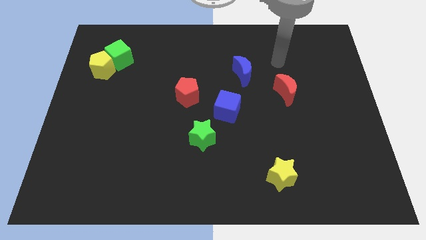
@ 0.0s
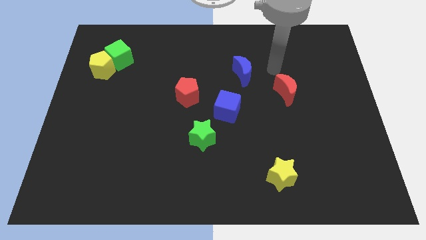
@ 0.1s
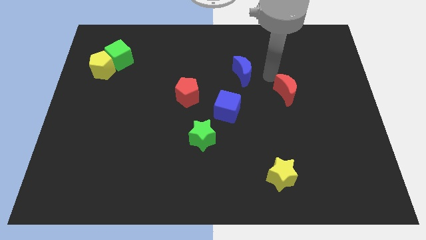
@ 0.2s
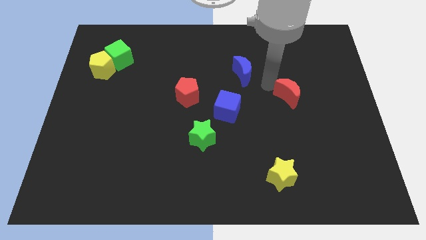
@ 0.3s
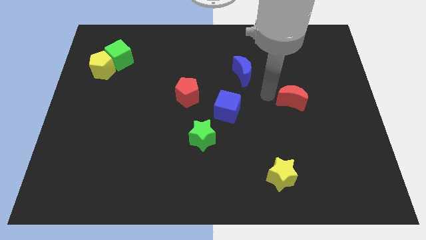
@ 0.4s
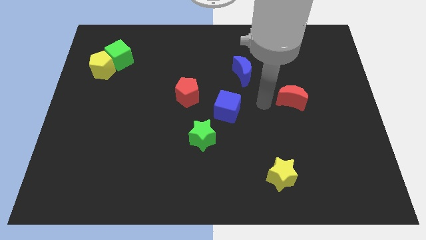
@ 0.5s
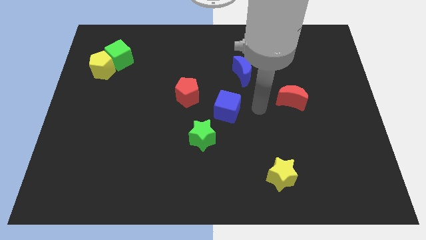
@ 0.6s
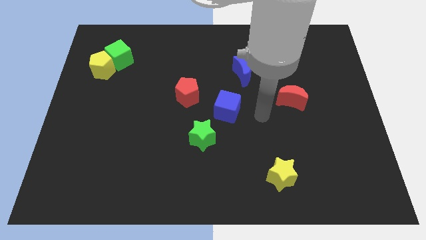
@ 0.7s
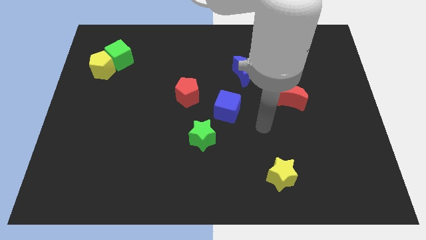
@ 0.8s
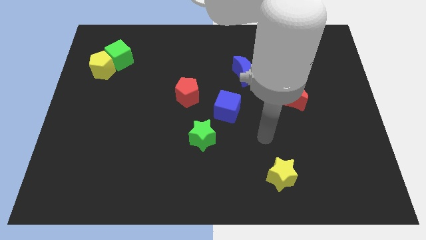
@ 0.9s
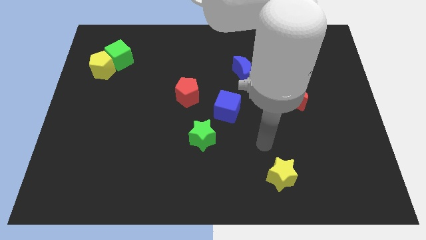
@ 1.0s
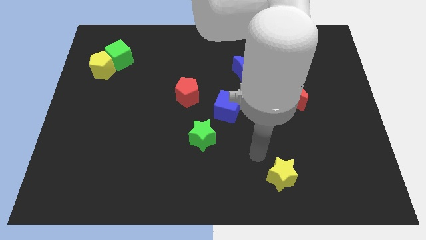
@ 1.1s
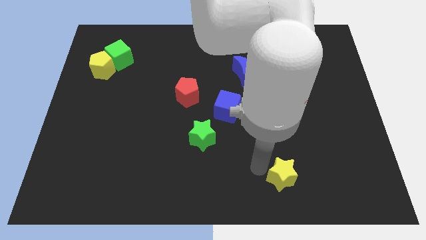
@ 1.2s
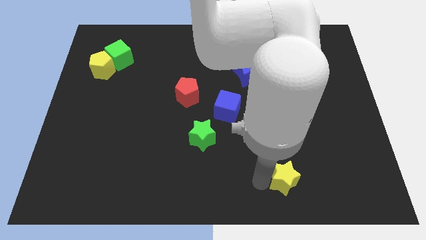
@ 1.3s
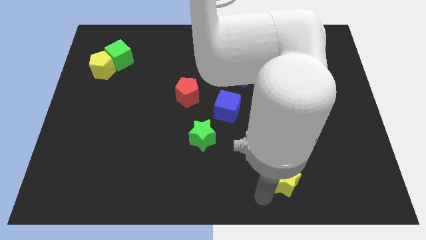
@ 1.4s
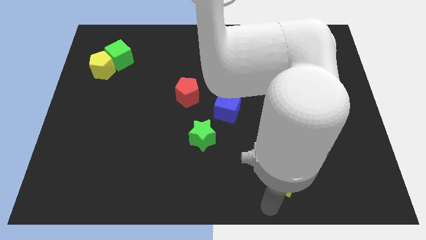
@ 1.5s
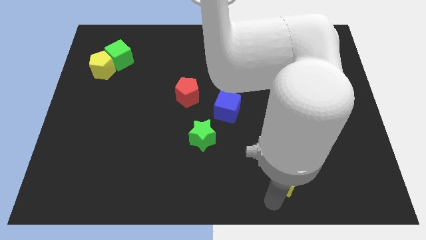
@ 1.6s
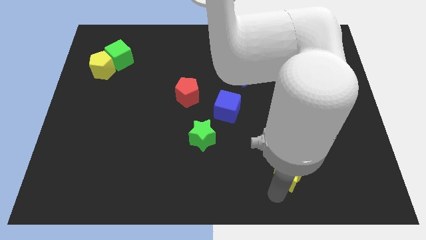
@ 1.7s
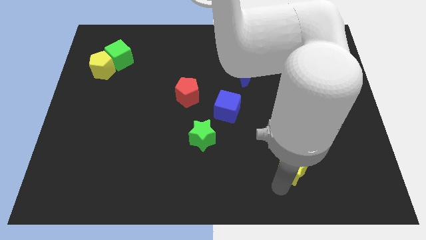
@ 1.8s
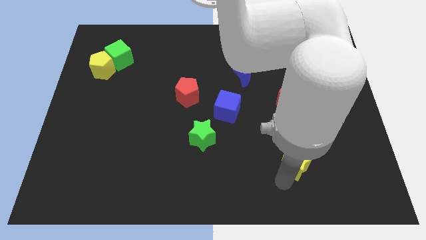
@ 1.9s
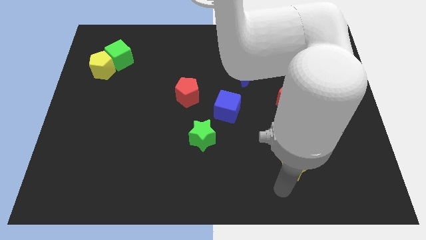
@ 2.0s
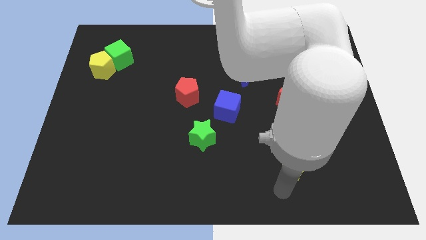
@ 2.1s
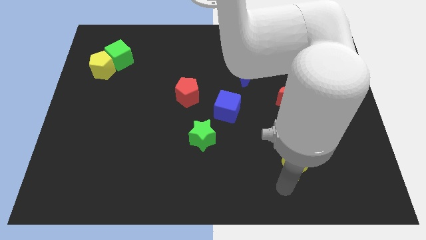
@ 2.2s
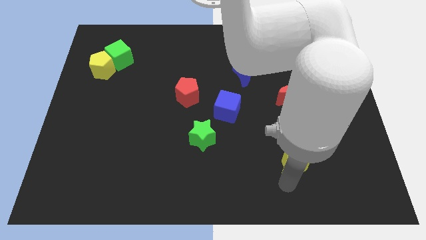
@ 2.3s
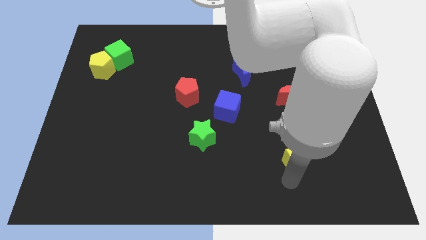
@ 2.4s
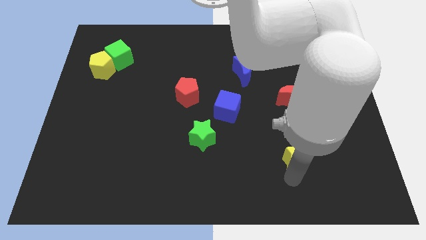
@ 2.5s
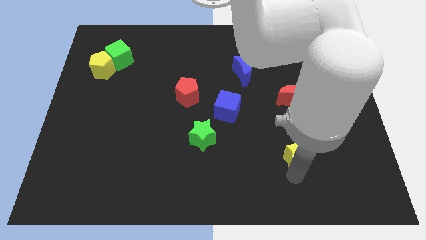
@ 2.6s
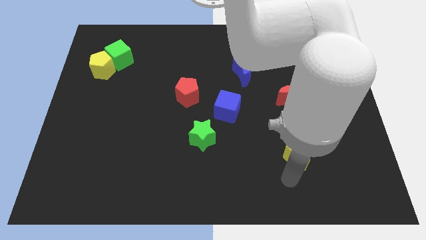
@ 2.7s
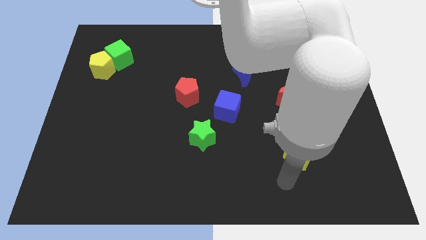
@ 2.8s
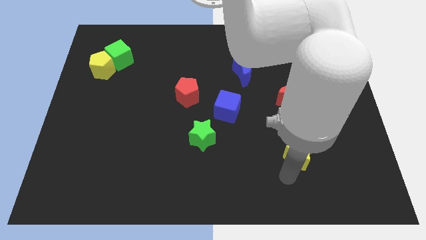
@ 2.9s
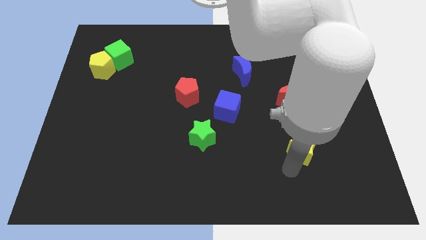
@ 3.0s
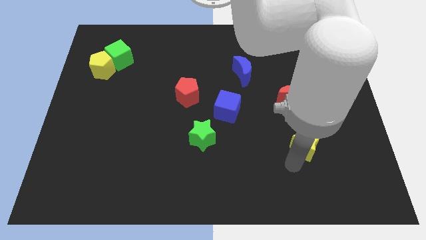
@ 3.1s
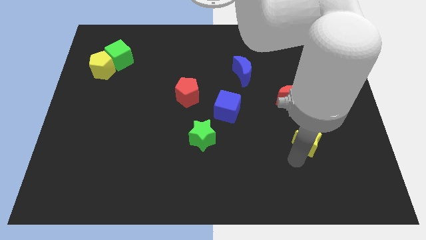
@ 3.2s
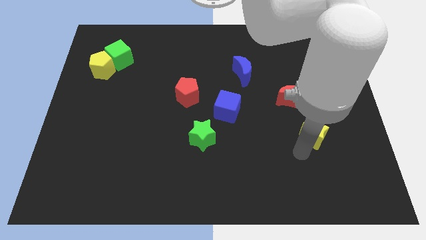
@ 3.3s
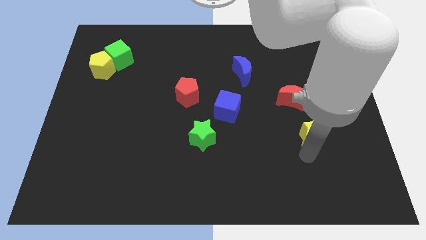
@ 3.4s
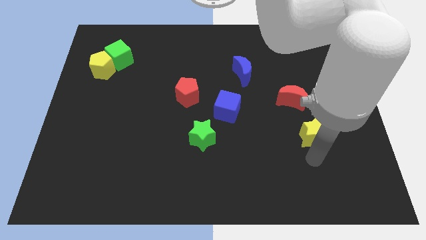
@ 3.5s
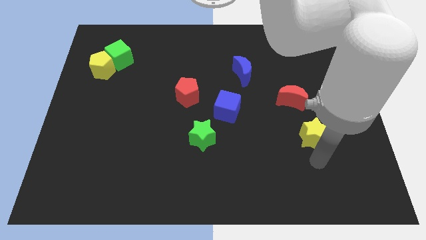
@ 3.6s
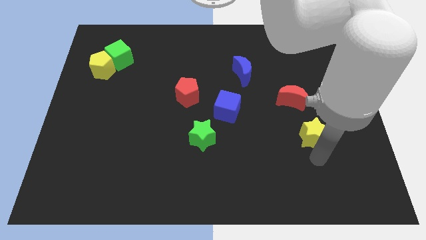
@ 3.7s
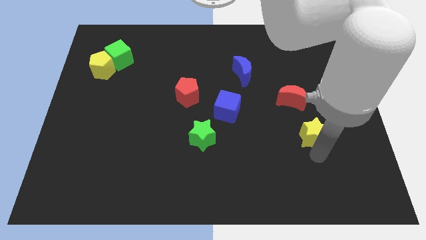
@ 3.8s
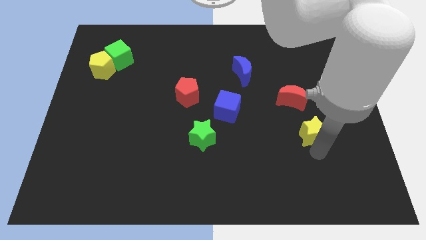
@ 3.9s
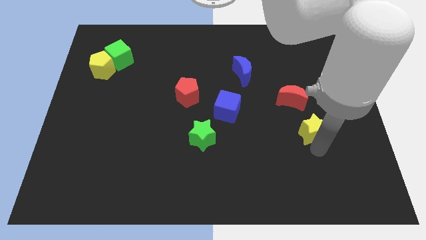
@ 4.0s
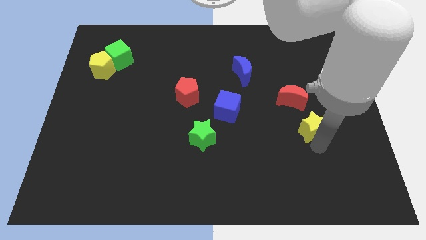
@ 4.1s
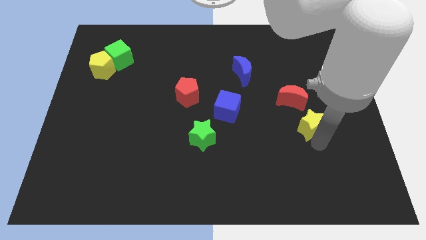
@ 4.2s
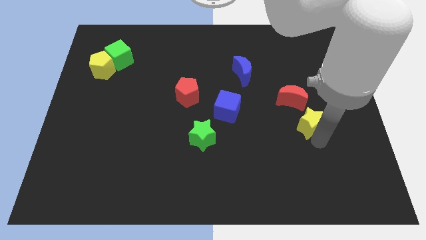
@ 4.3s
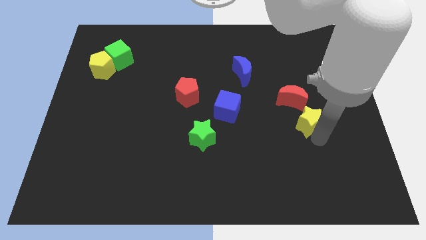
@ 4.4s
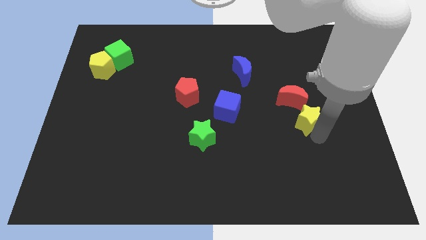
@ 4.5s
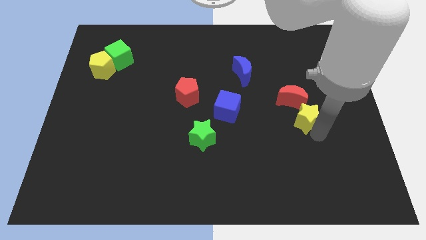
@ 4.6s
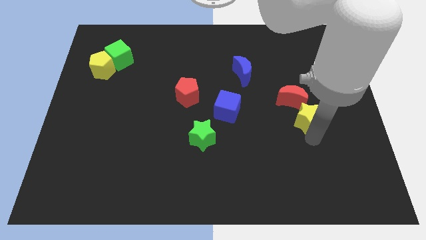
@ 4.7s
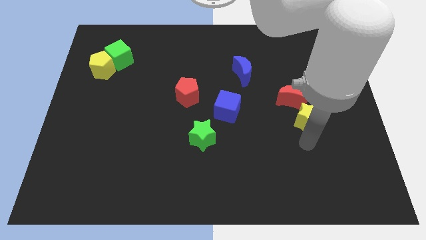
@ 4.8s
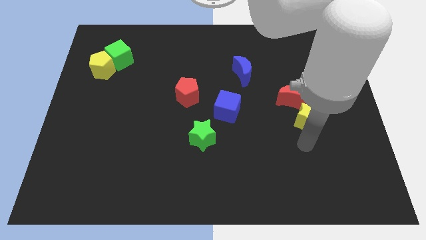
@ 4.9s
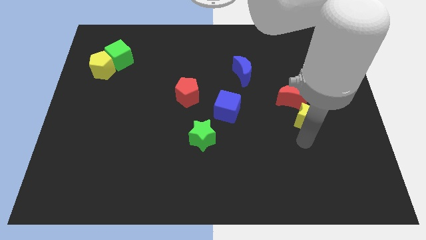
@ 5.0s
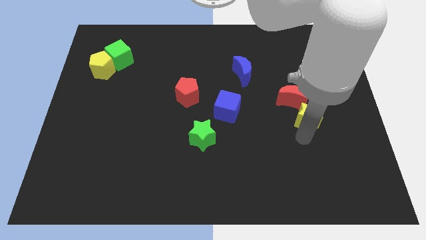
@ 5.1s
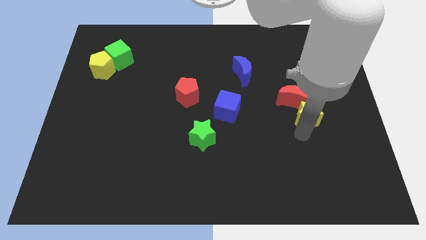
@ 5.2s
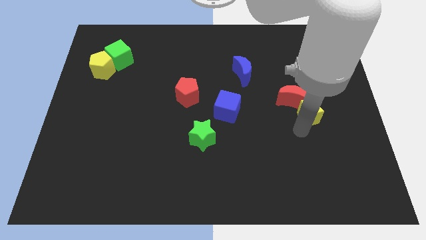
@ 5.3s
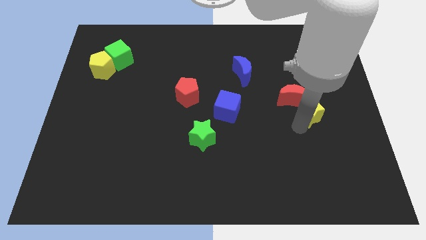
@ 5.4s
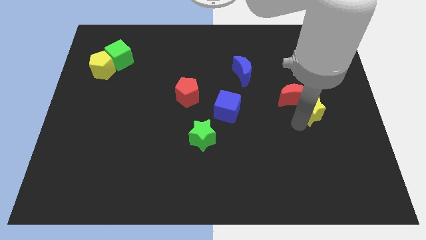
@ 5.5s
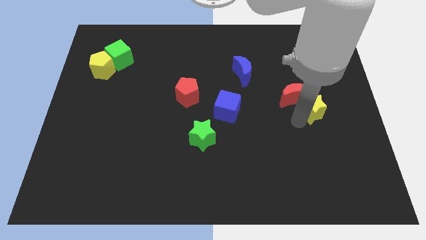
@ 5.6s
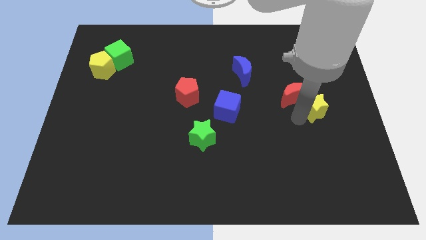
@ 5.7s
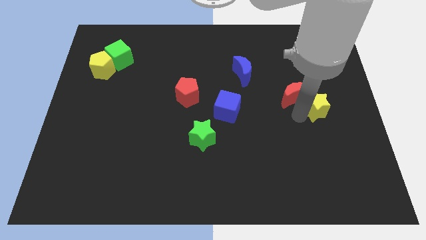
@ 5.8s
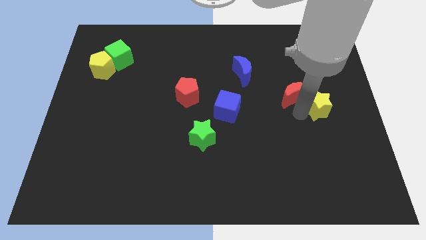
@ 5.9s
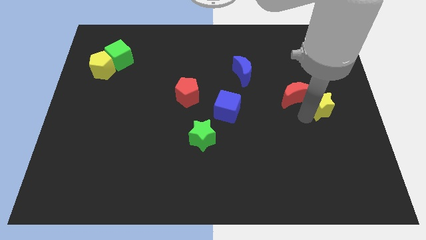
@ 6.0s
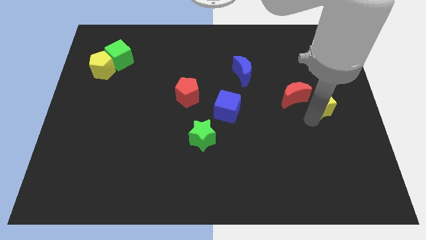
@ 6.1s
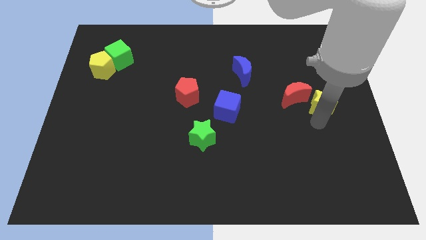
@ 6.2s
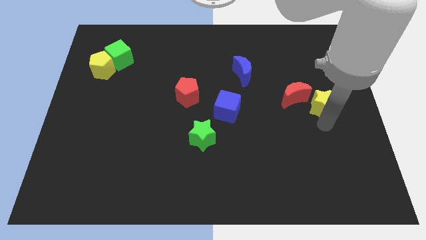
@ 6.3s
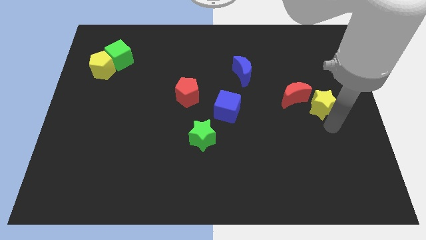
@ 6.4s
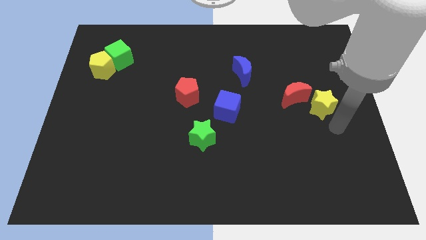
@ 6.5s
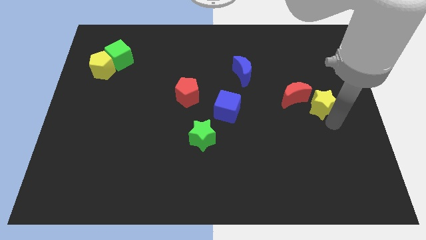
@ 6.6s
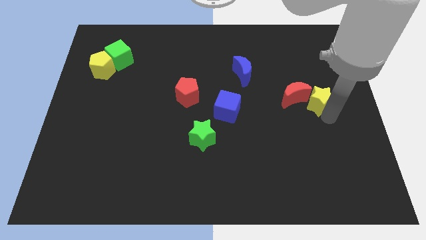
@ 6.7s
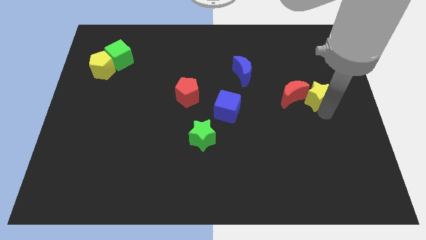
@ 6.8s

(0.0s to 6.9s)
move the yellow star to the top right of the red moon

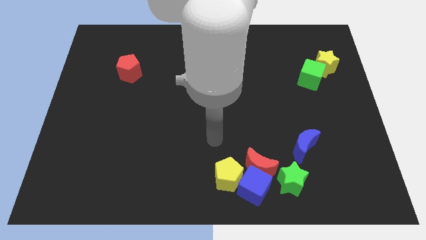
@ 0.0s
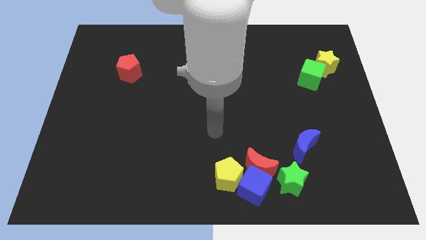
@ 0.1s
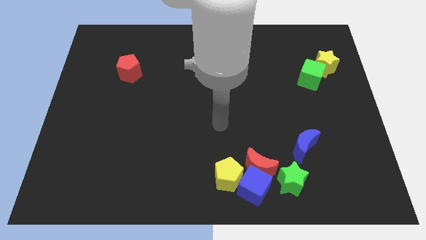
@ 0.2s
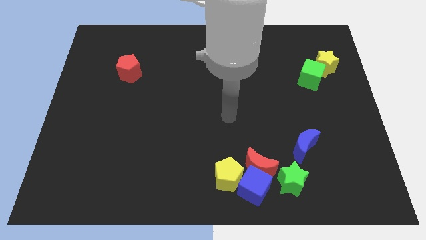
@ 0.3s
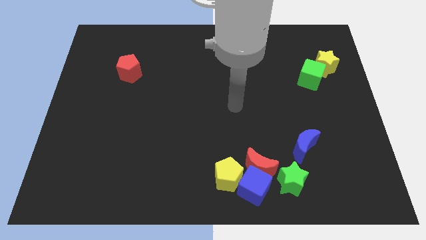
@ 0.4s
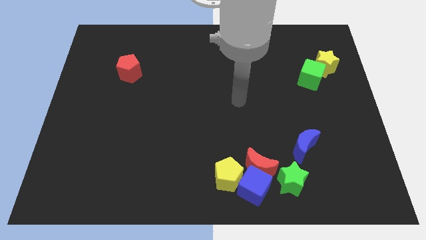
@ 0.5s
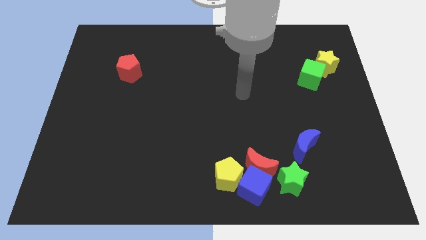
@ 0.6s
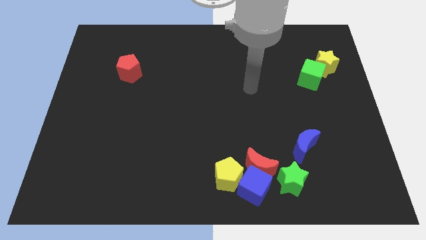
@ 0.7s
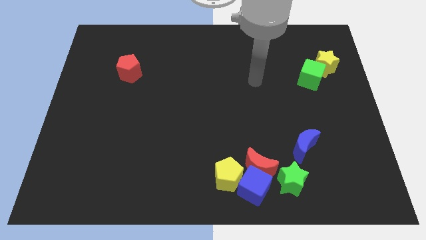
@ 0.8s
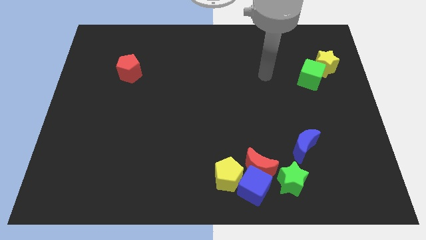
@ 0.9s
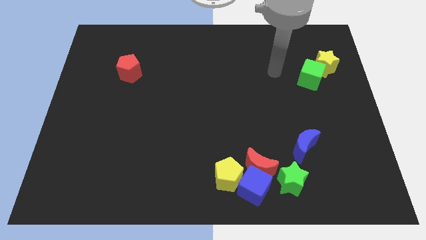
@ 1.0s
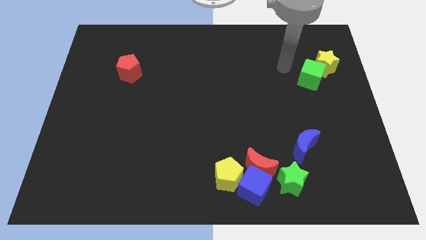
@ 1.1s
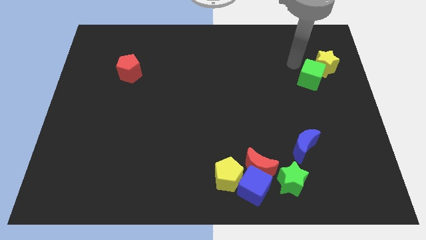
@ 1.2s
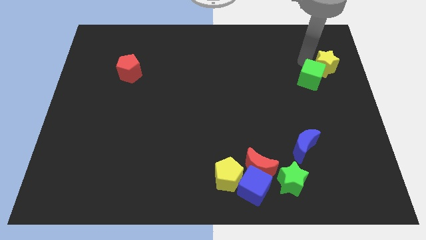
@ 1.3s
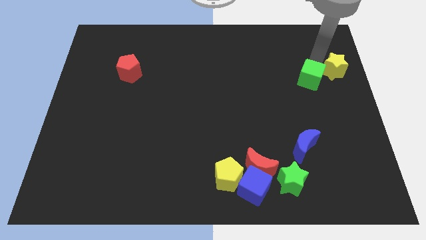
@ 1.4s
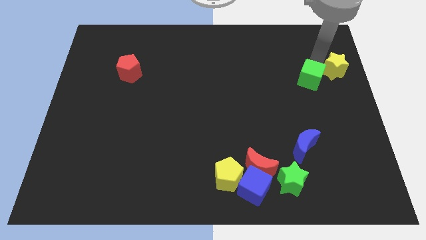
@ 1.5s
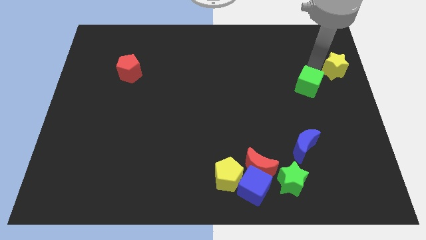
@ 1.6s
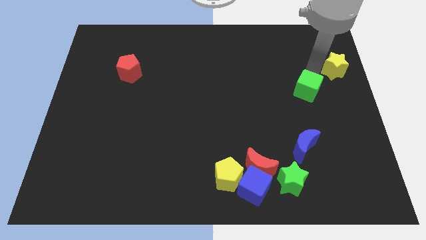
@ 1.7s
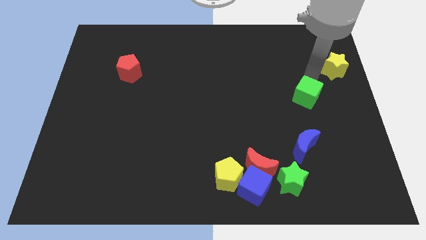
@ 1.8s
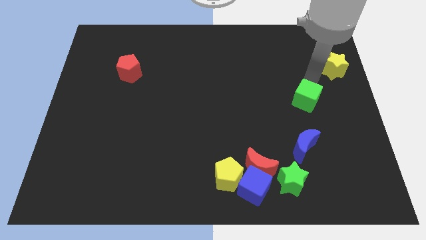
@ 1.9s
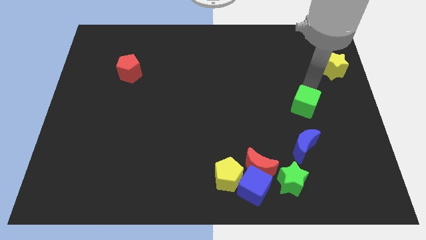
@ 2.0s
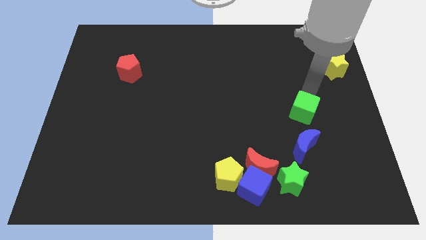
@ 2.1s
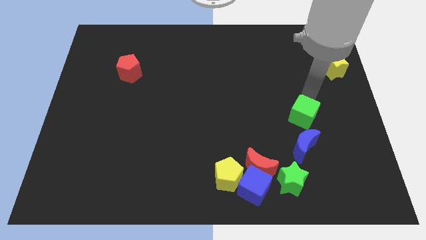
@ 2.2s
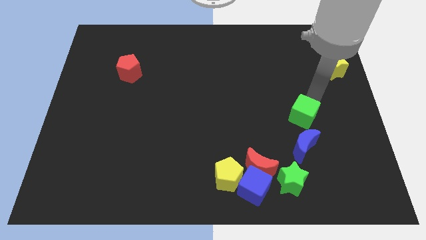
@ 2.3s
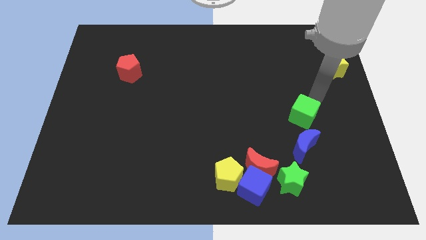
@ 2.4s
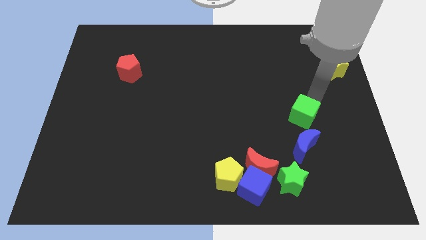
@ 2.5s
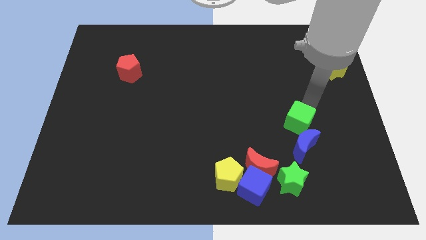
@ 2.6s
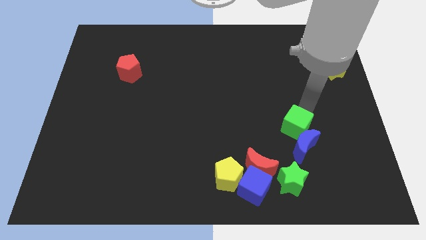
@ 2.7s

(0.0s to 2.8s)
push the green cube above the green star
